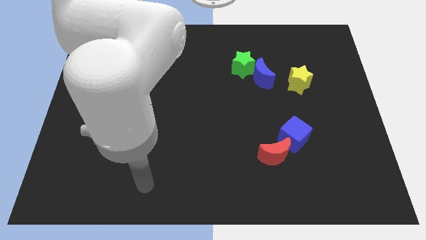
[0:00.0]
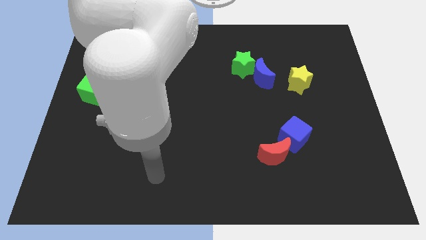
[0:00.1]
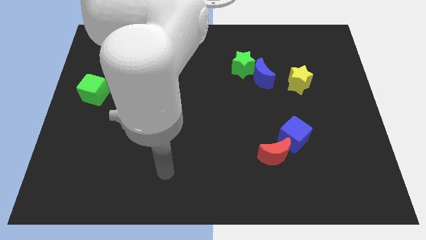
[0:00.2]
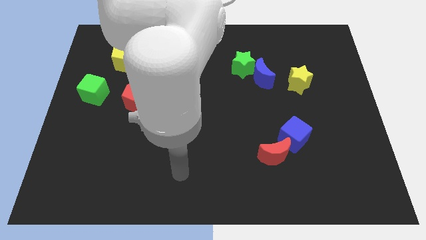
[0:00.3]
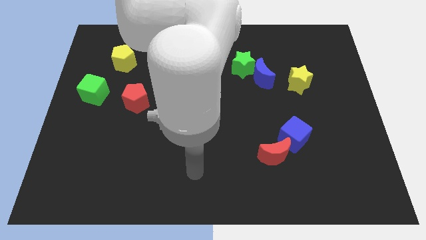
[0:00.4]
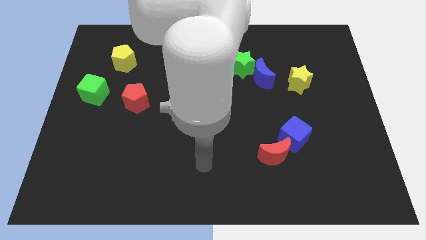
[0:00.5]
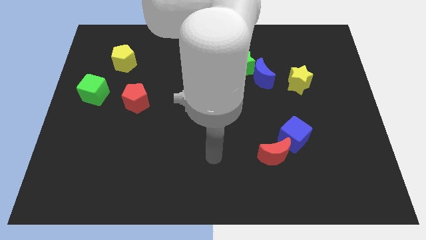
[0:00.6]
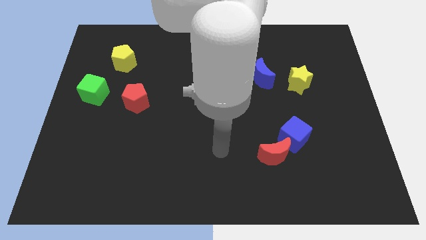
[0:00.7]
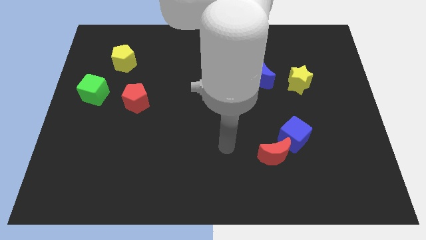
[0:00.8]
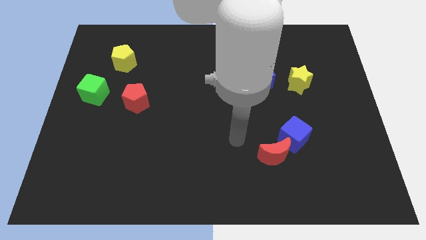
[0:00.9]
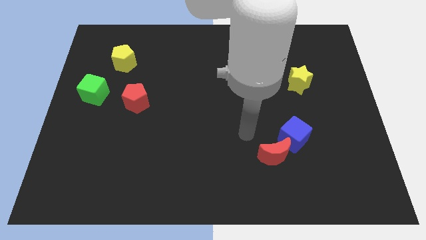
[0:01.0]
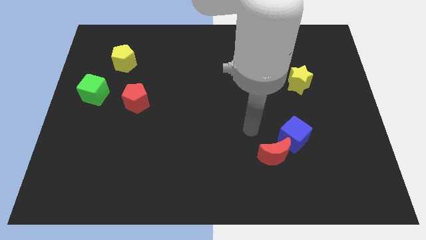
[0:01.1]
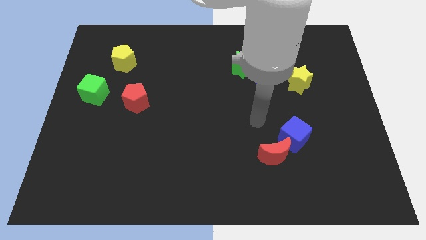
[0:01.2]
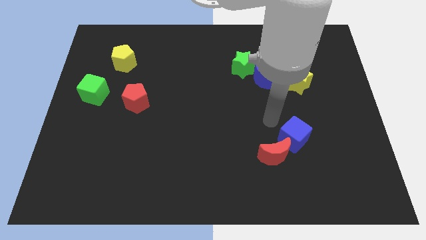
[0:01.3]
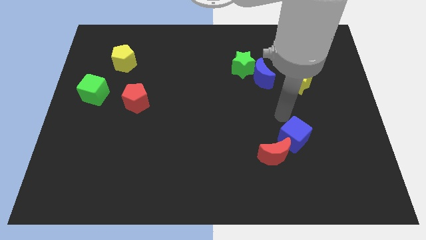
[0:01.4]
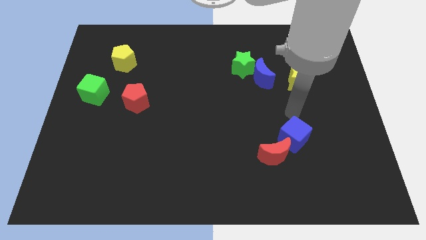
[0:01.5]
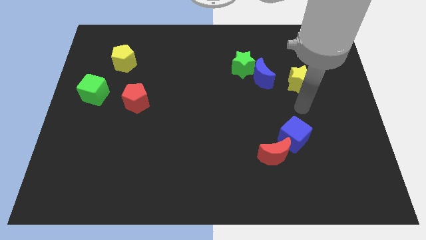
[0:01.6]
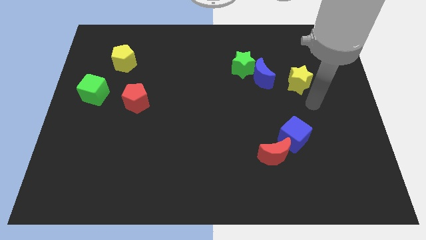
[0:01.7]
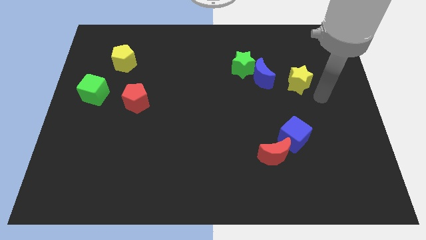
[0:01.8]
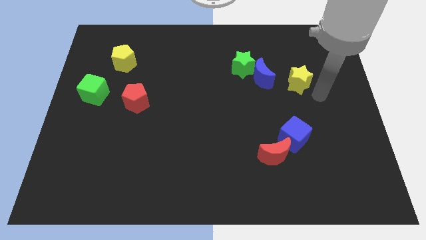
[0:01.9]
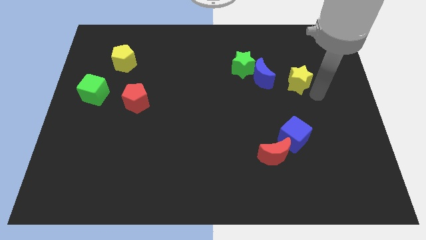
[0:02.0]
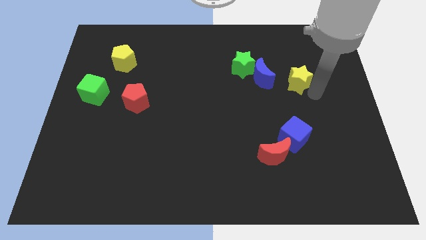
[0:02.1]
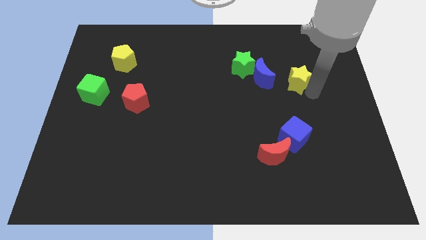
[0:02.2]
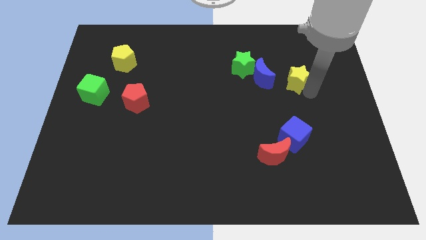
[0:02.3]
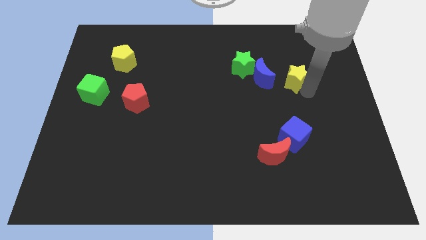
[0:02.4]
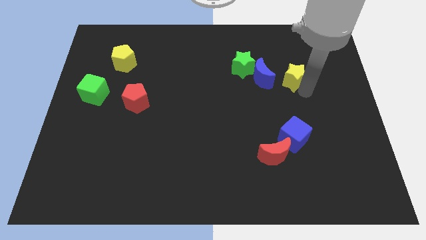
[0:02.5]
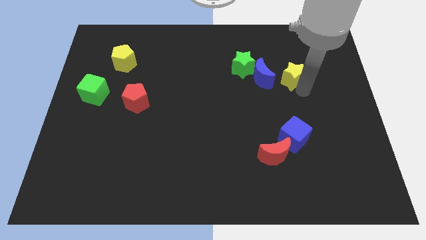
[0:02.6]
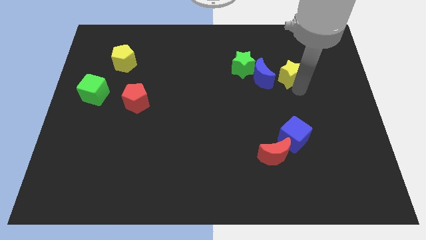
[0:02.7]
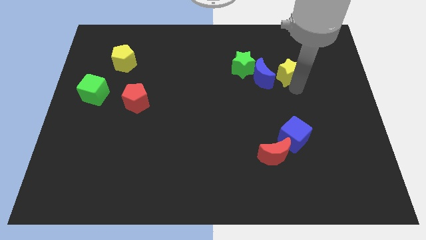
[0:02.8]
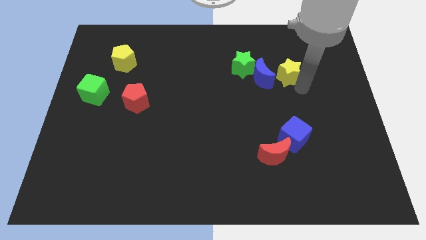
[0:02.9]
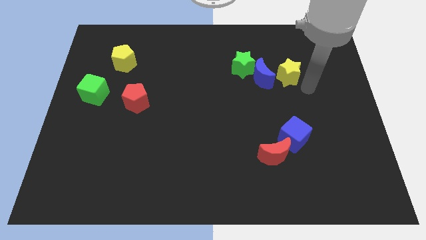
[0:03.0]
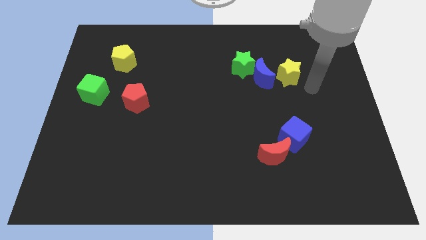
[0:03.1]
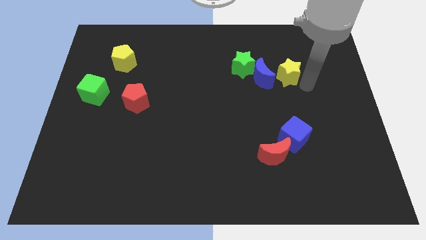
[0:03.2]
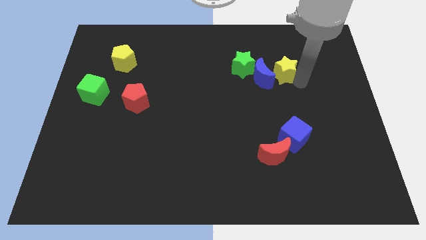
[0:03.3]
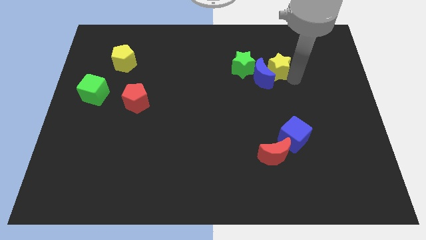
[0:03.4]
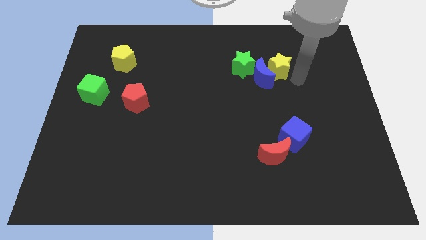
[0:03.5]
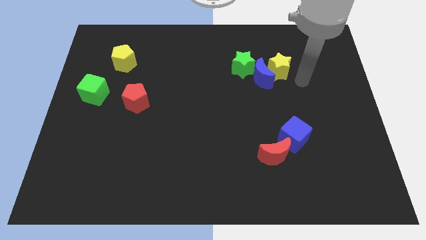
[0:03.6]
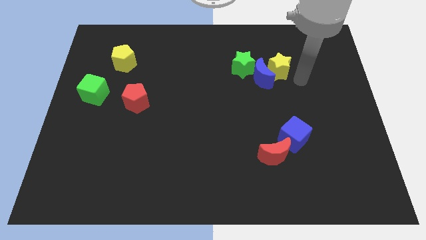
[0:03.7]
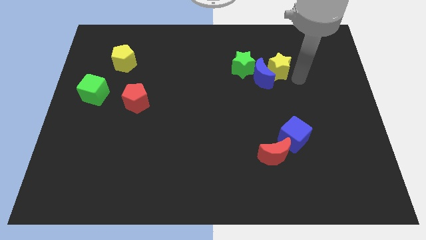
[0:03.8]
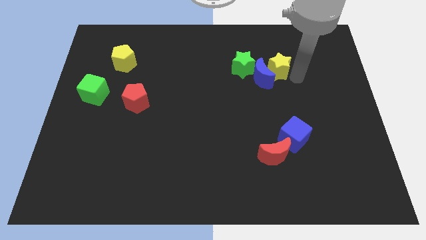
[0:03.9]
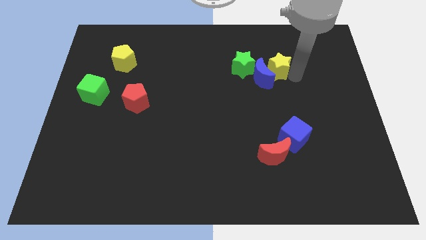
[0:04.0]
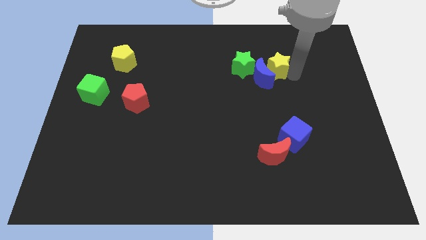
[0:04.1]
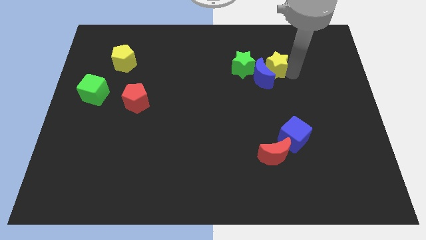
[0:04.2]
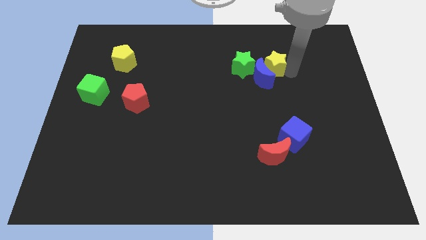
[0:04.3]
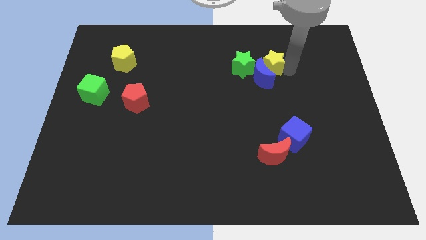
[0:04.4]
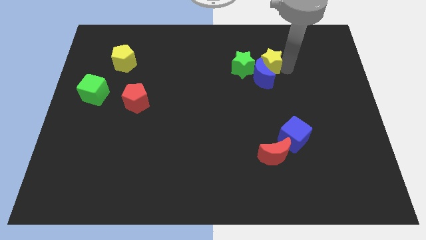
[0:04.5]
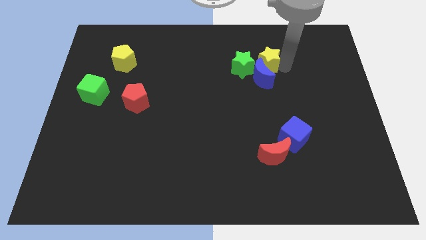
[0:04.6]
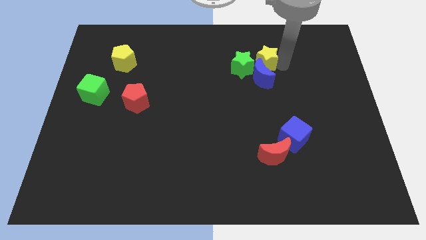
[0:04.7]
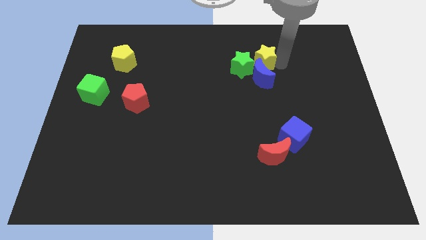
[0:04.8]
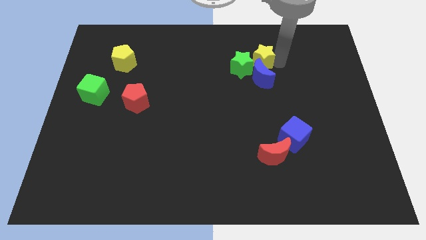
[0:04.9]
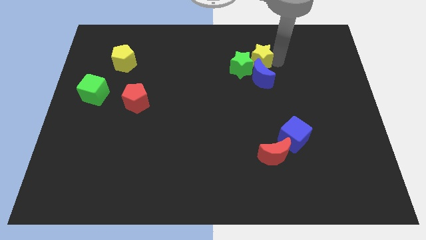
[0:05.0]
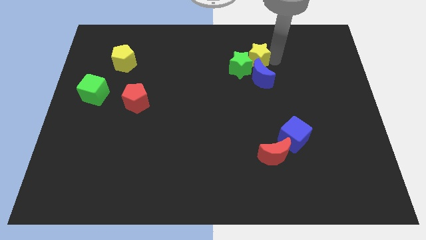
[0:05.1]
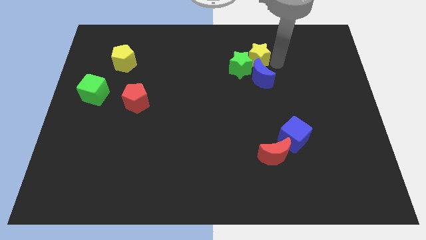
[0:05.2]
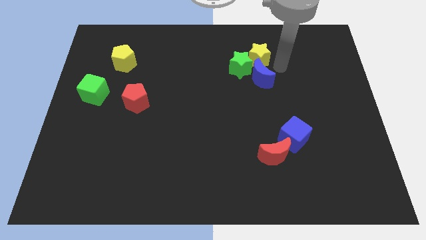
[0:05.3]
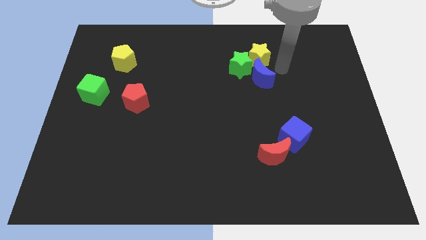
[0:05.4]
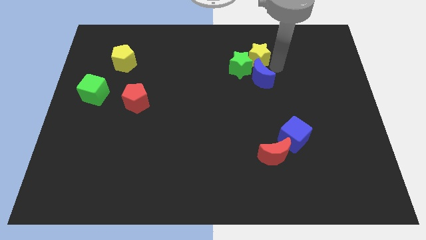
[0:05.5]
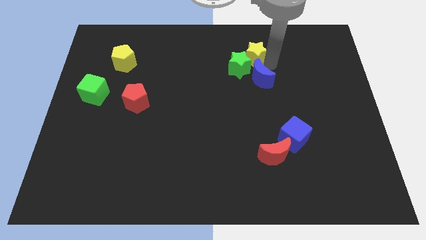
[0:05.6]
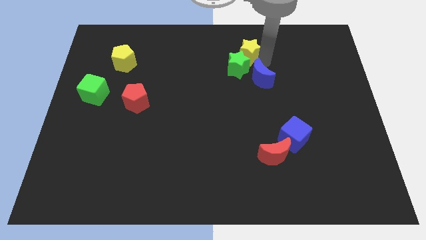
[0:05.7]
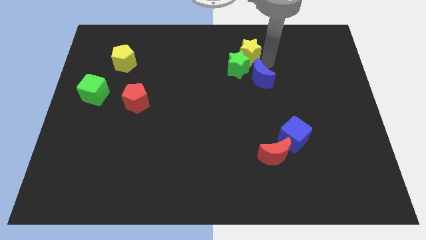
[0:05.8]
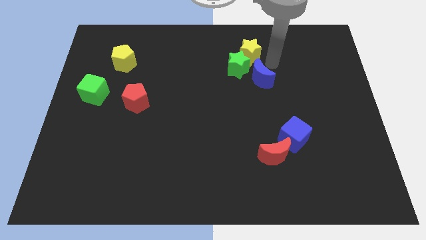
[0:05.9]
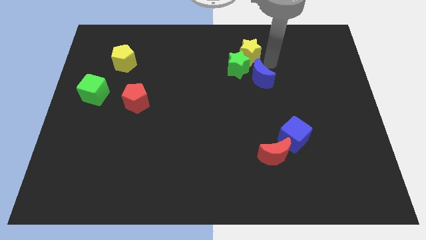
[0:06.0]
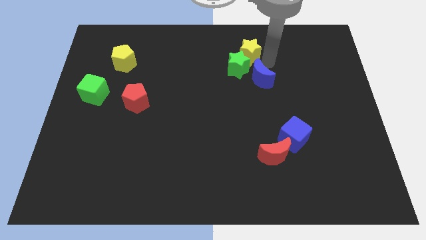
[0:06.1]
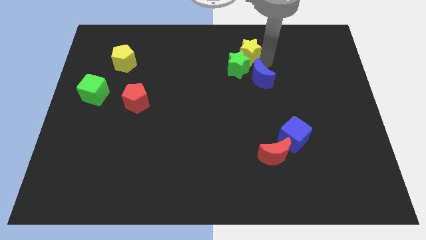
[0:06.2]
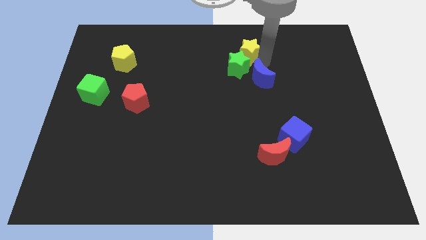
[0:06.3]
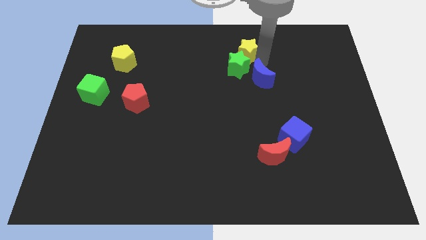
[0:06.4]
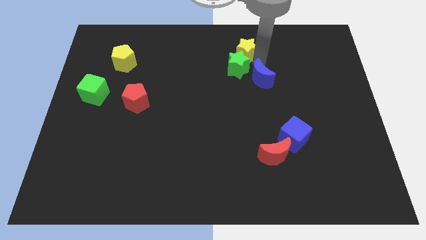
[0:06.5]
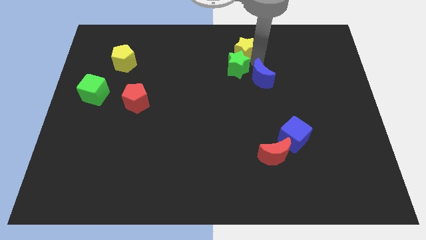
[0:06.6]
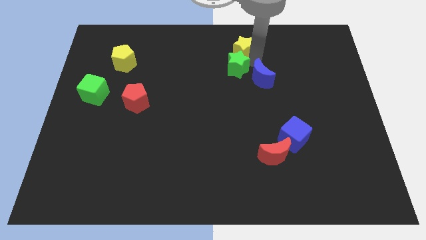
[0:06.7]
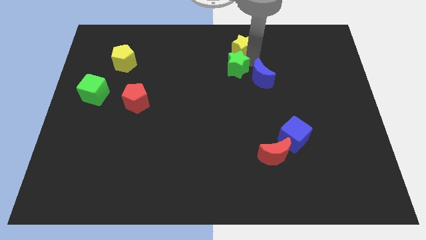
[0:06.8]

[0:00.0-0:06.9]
slide the yellow star to the top
